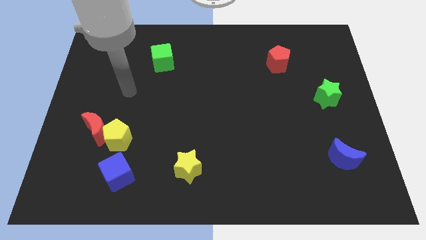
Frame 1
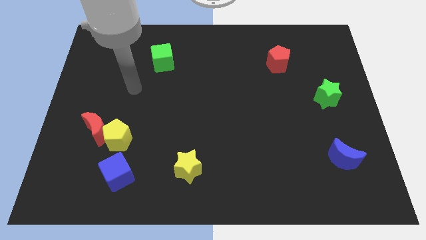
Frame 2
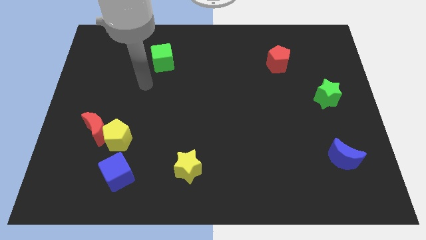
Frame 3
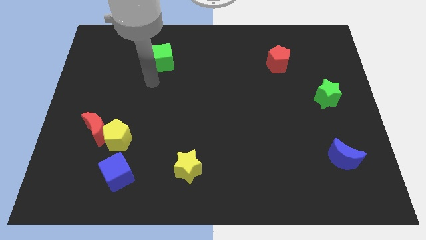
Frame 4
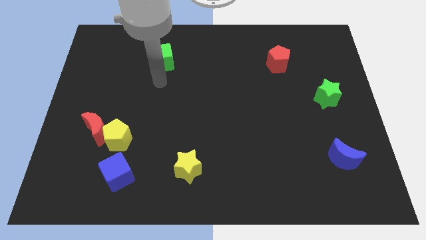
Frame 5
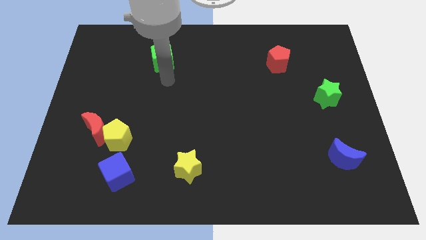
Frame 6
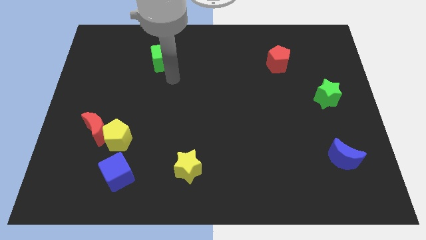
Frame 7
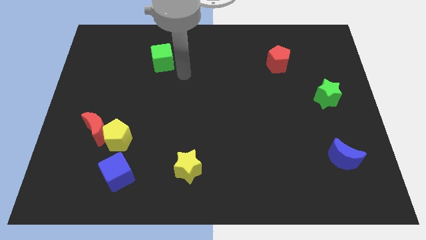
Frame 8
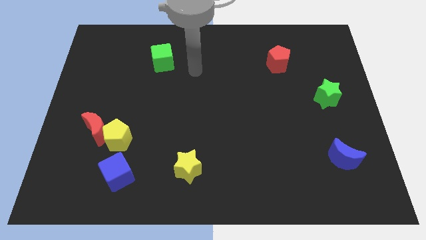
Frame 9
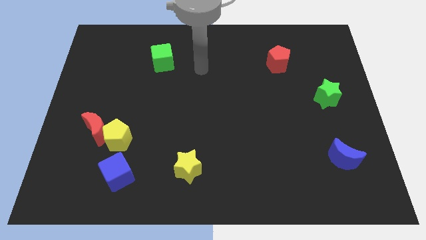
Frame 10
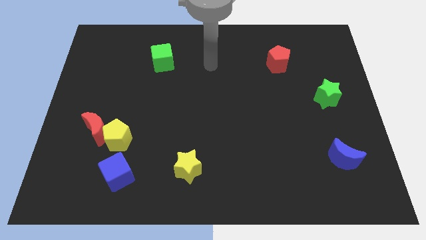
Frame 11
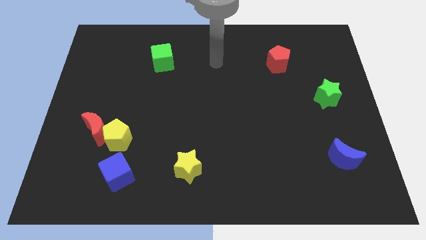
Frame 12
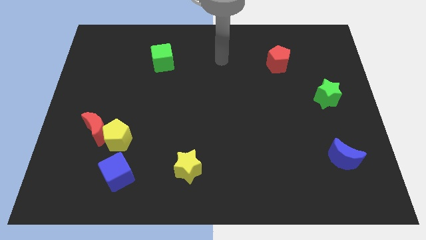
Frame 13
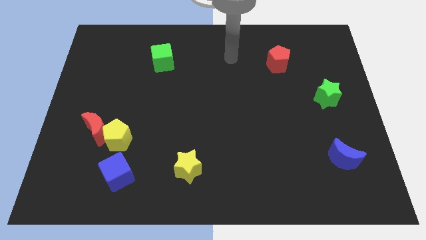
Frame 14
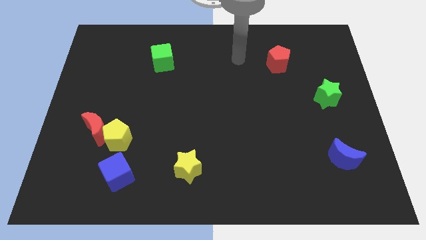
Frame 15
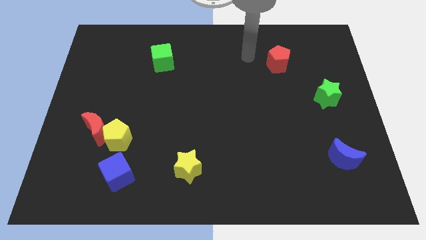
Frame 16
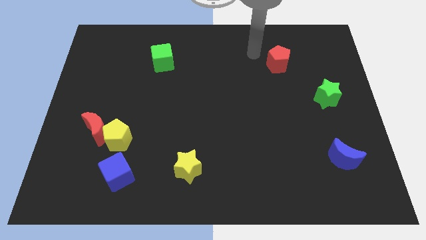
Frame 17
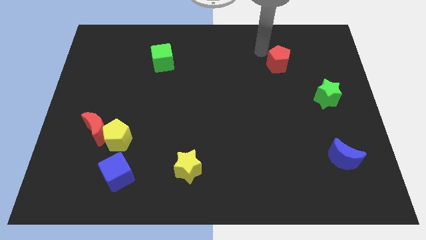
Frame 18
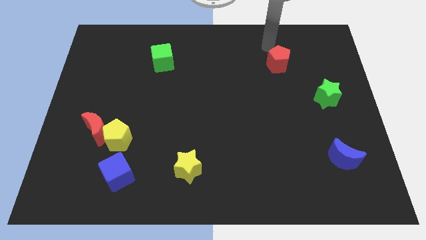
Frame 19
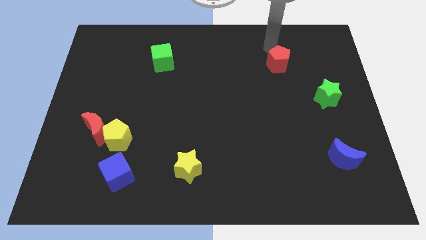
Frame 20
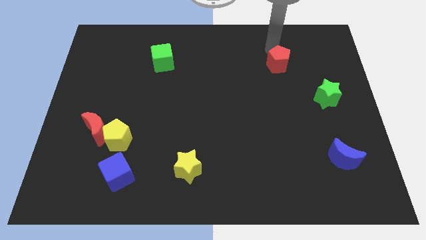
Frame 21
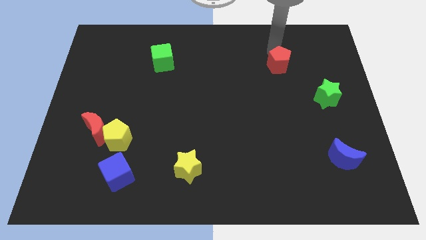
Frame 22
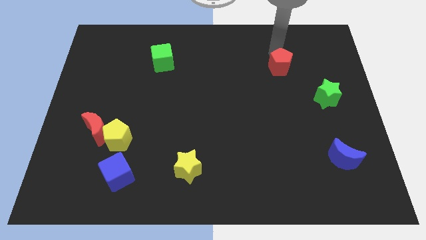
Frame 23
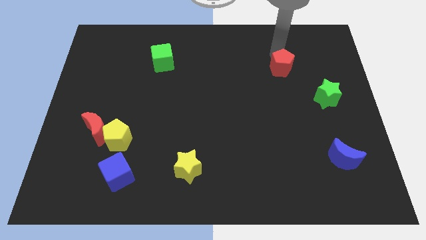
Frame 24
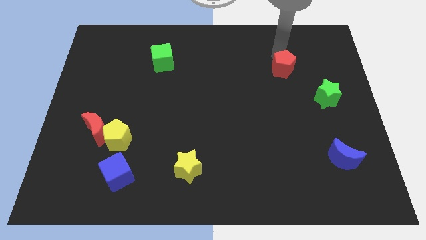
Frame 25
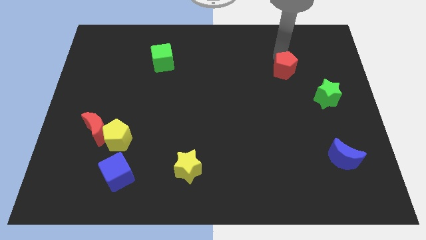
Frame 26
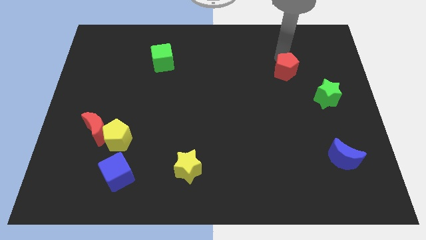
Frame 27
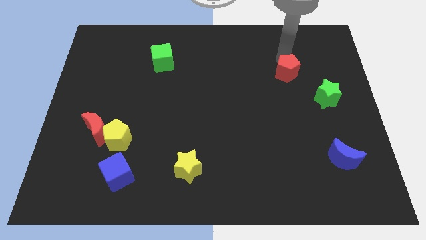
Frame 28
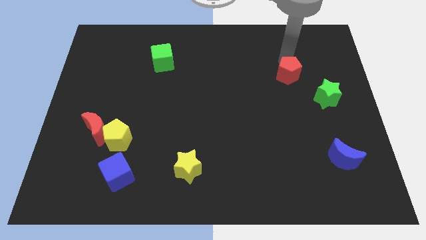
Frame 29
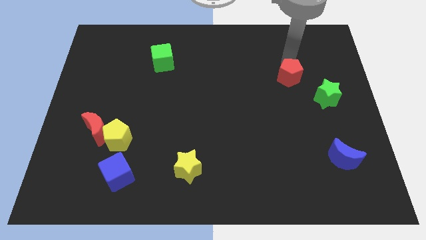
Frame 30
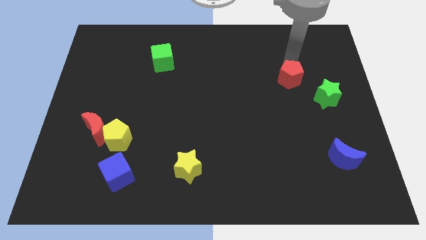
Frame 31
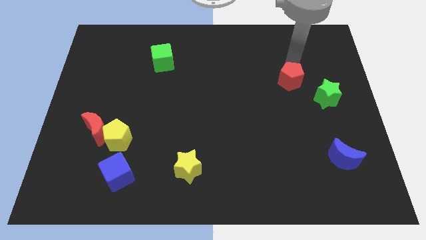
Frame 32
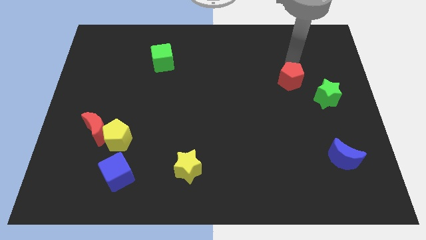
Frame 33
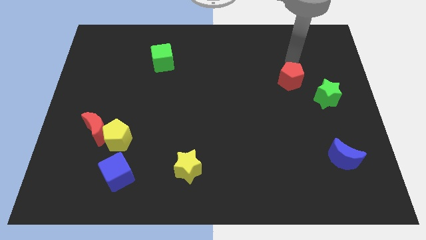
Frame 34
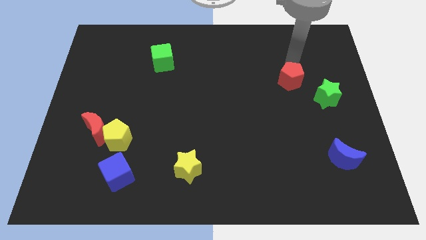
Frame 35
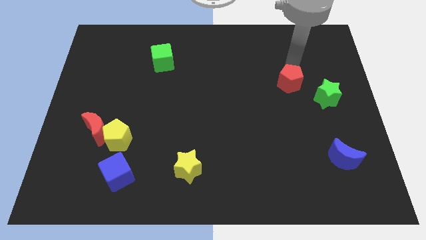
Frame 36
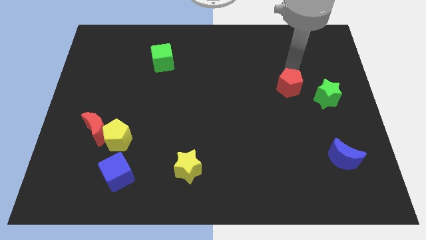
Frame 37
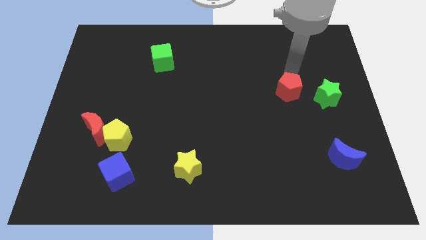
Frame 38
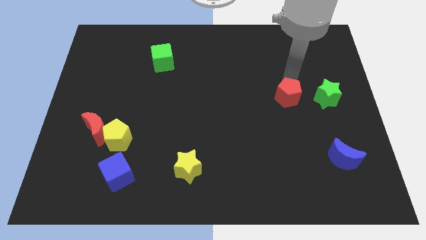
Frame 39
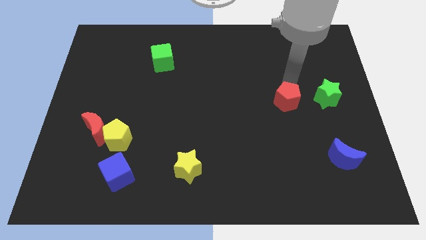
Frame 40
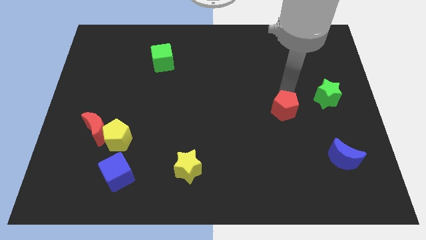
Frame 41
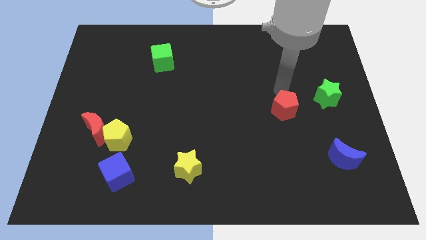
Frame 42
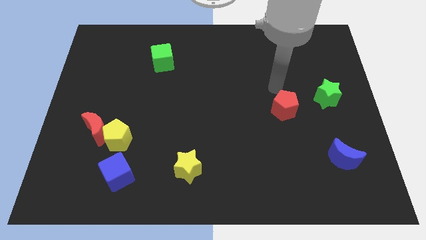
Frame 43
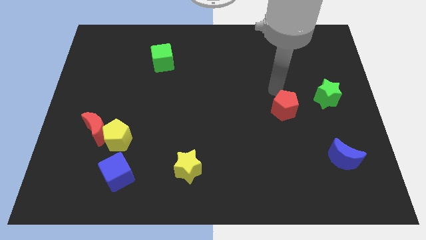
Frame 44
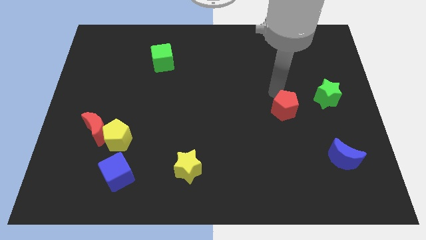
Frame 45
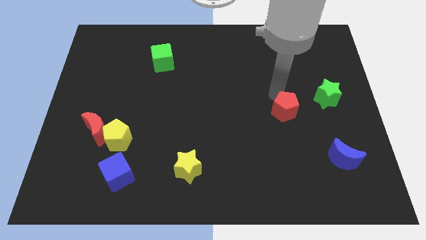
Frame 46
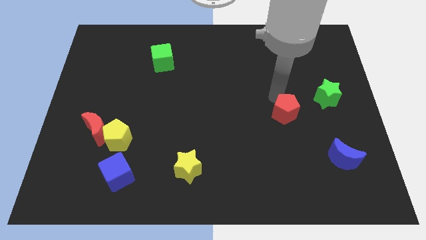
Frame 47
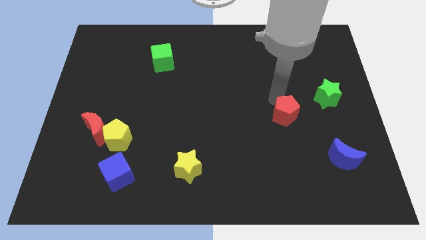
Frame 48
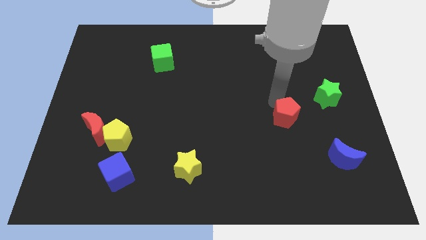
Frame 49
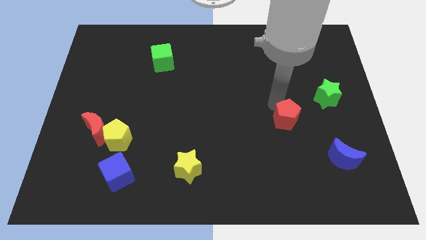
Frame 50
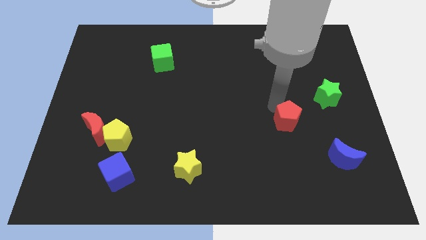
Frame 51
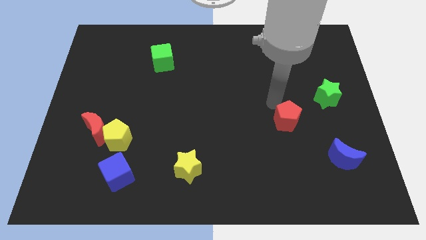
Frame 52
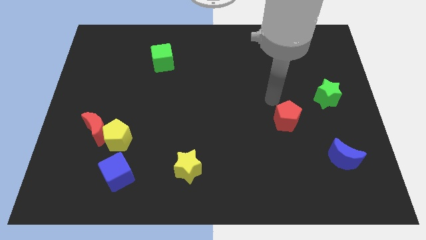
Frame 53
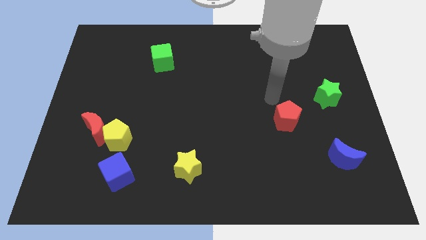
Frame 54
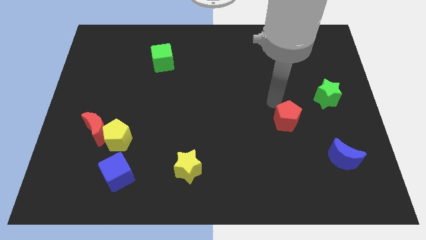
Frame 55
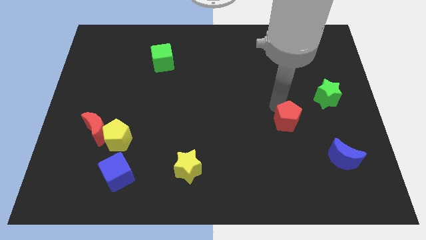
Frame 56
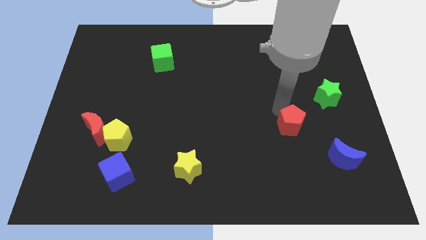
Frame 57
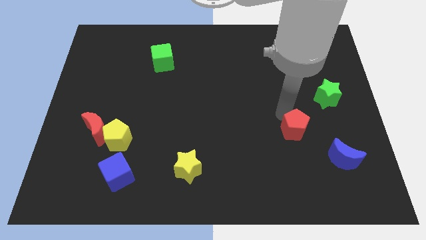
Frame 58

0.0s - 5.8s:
slide the red pentagon downwards

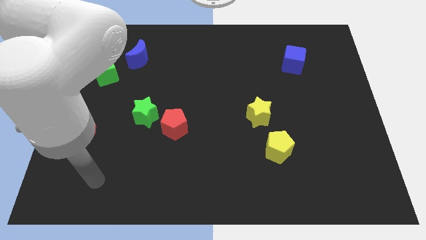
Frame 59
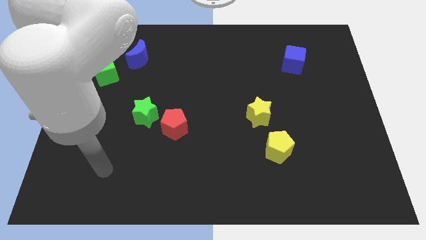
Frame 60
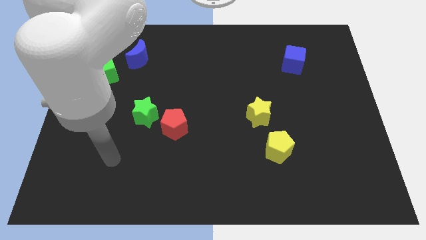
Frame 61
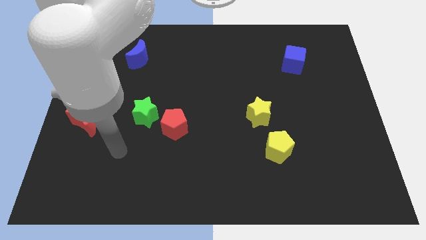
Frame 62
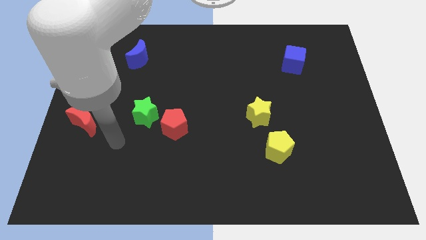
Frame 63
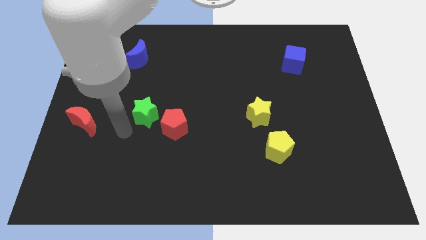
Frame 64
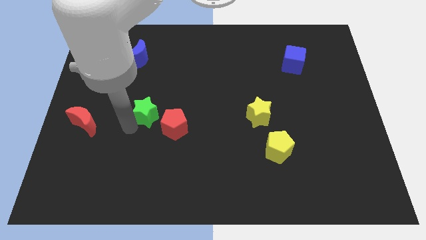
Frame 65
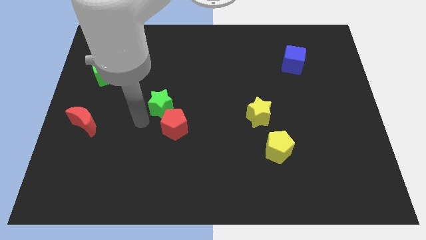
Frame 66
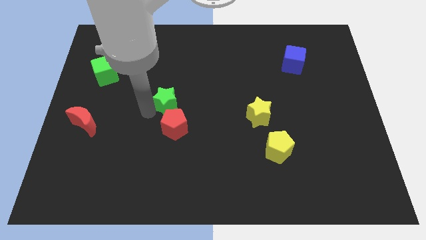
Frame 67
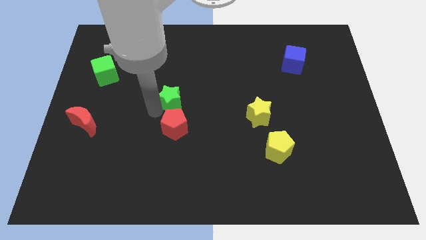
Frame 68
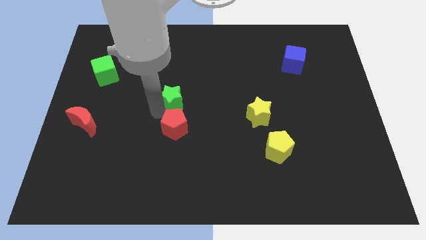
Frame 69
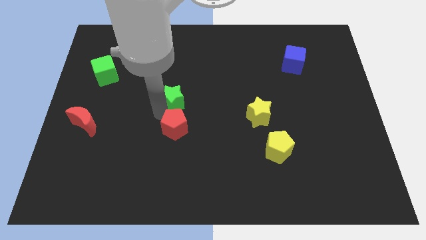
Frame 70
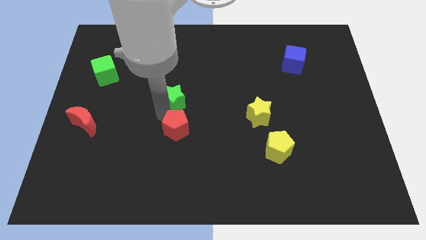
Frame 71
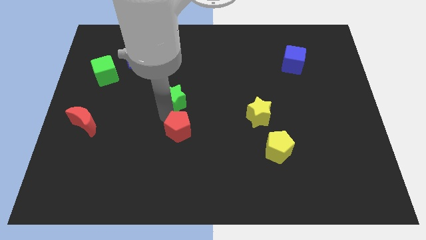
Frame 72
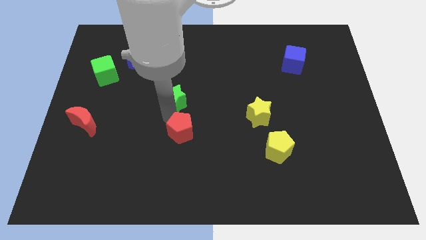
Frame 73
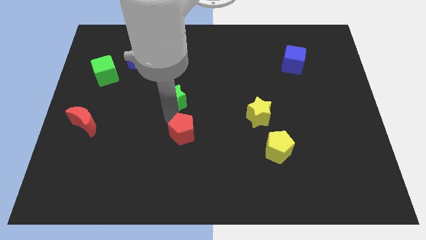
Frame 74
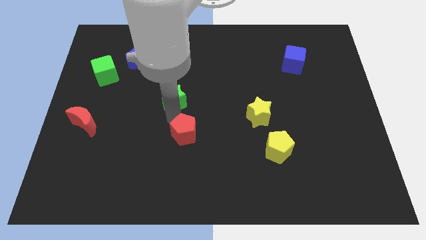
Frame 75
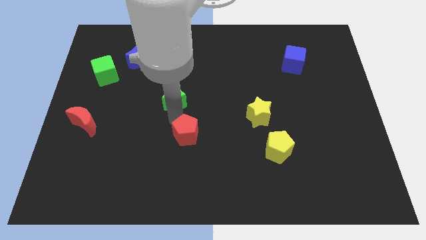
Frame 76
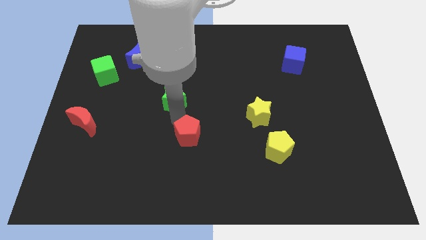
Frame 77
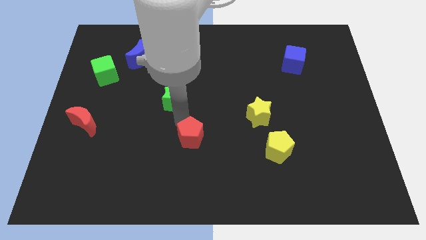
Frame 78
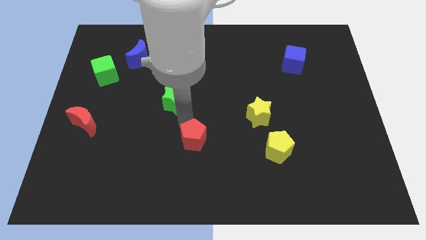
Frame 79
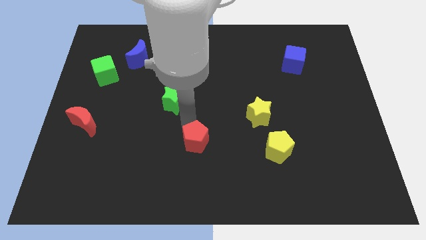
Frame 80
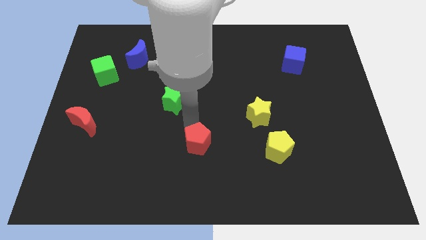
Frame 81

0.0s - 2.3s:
move the red pentagon diagonally downwards and to the right slightly
